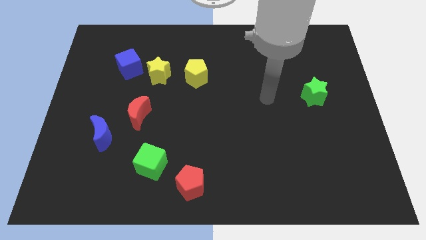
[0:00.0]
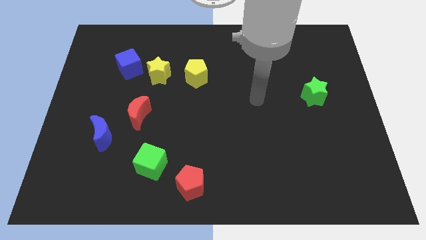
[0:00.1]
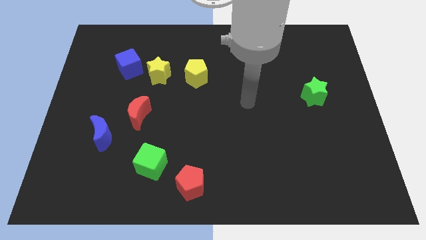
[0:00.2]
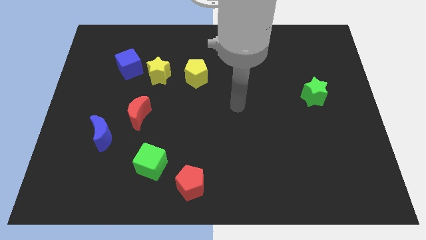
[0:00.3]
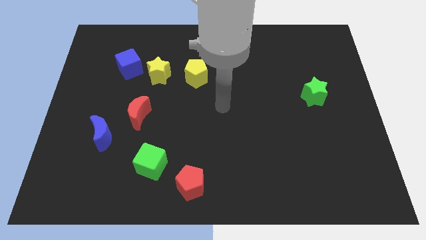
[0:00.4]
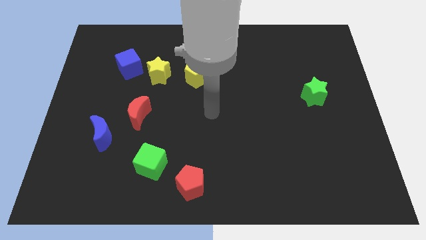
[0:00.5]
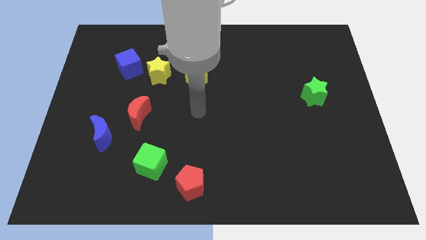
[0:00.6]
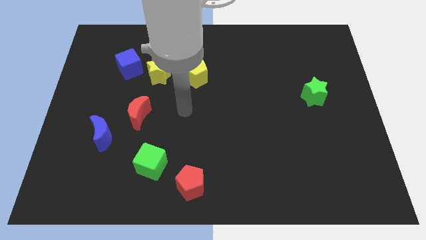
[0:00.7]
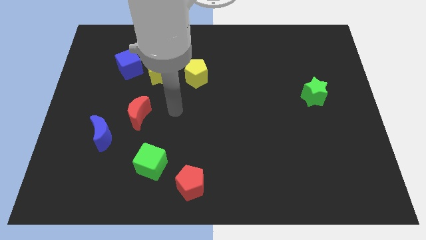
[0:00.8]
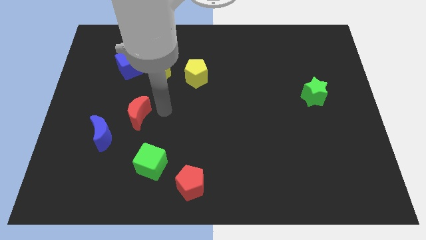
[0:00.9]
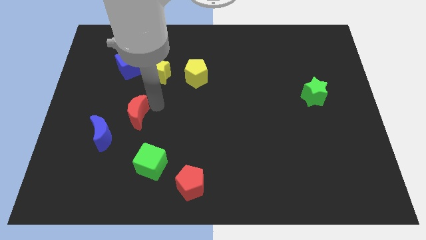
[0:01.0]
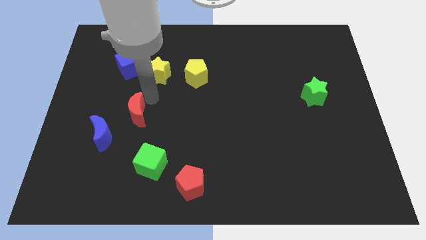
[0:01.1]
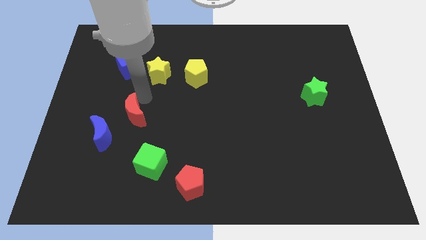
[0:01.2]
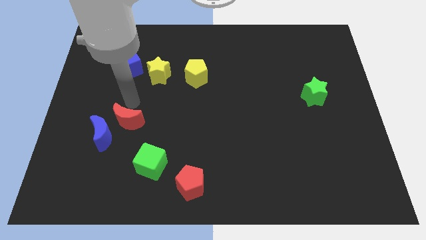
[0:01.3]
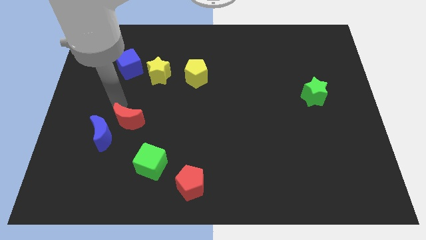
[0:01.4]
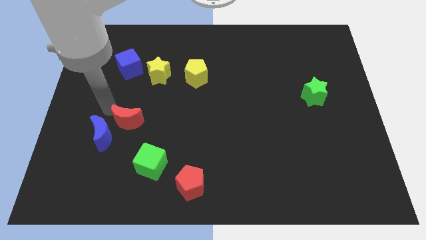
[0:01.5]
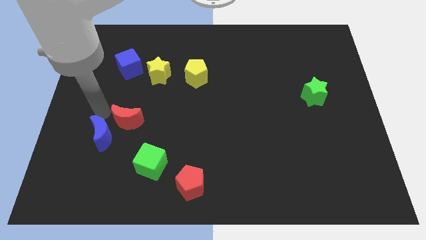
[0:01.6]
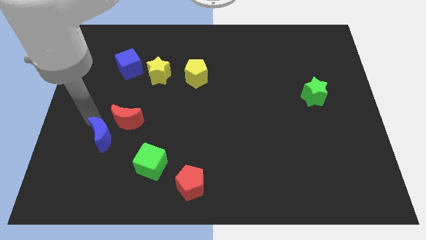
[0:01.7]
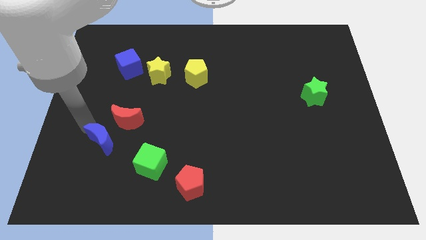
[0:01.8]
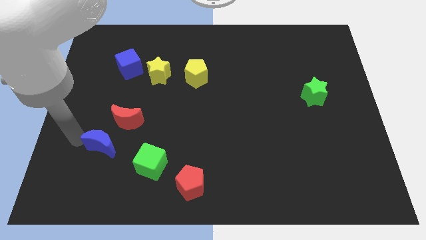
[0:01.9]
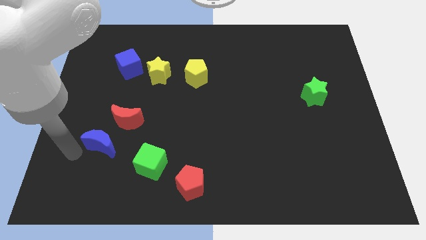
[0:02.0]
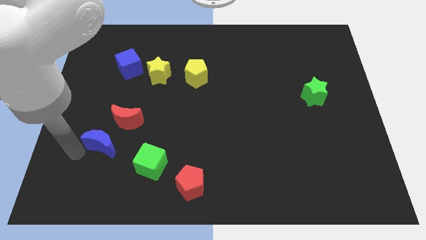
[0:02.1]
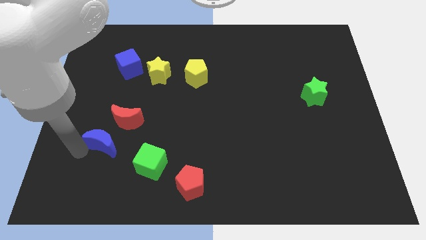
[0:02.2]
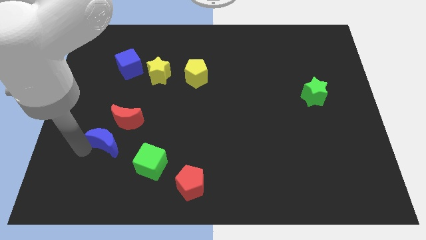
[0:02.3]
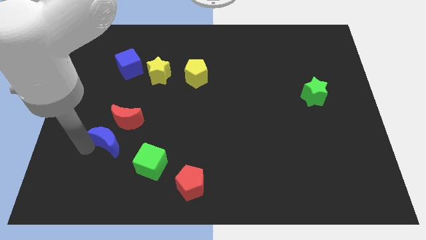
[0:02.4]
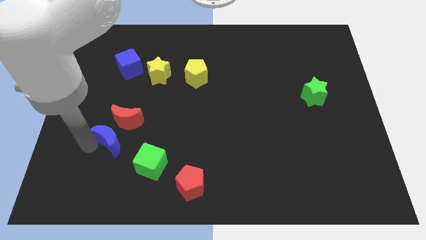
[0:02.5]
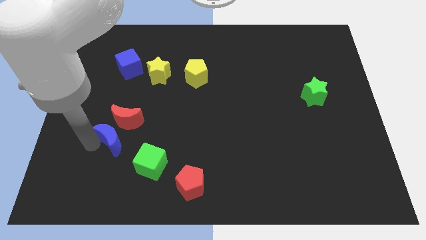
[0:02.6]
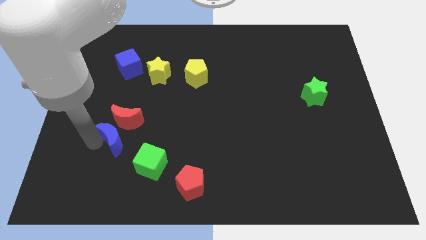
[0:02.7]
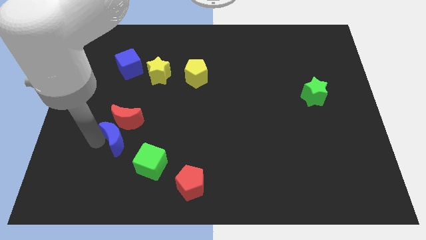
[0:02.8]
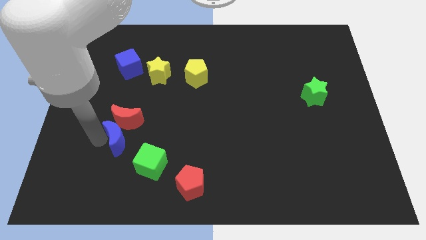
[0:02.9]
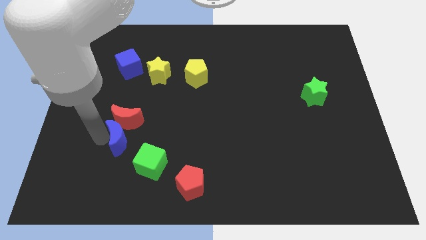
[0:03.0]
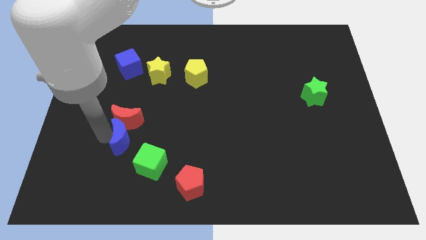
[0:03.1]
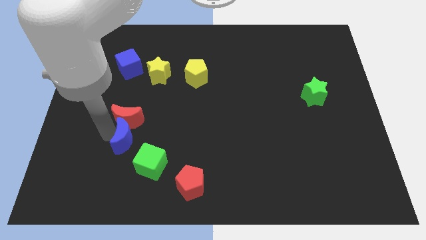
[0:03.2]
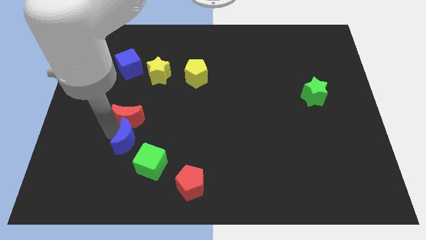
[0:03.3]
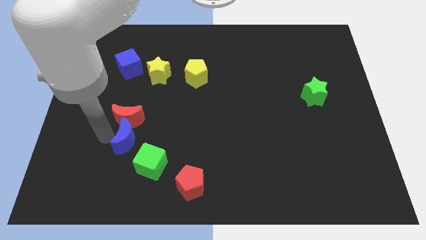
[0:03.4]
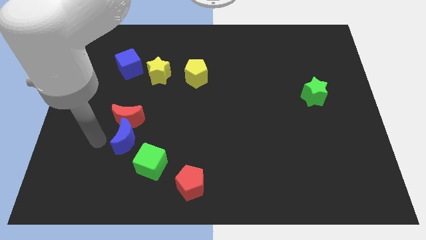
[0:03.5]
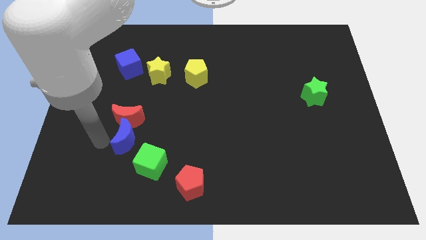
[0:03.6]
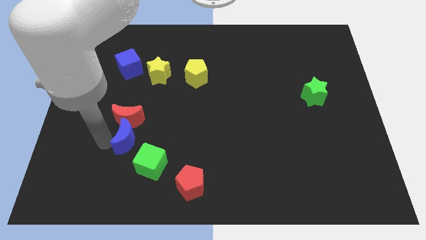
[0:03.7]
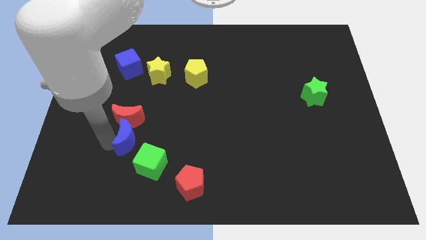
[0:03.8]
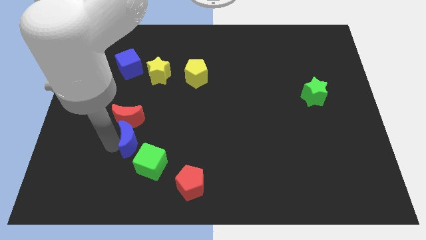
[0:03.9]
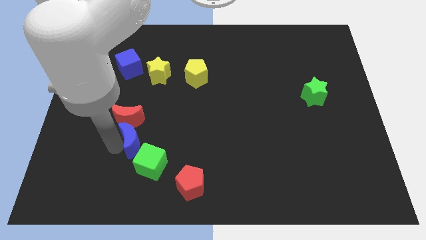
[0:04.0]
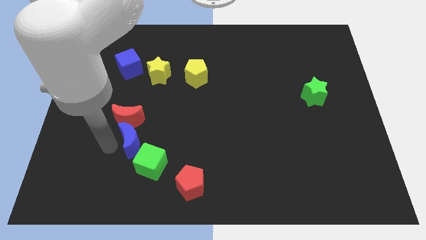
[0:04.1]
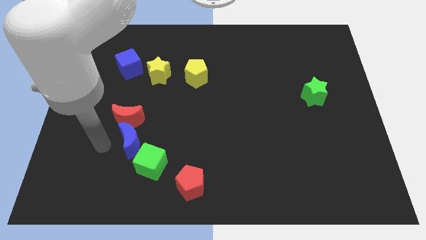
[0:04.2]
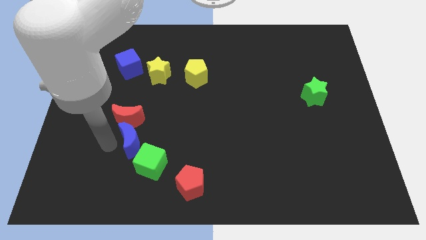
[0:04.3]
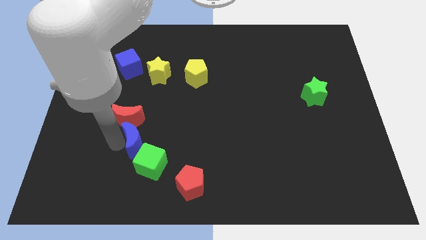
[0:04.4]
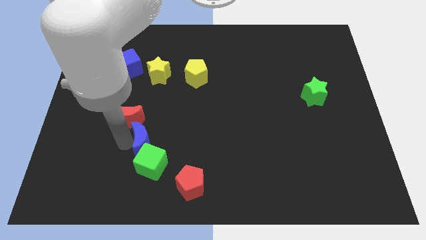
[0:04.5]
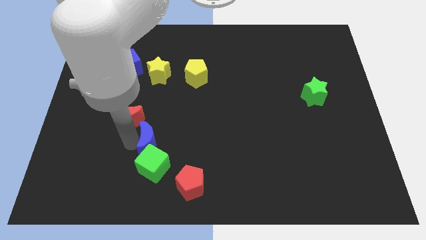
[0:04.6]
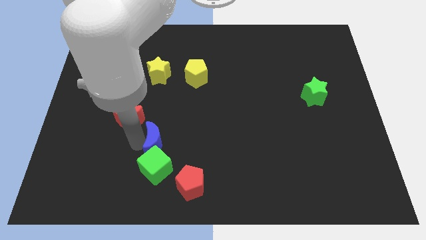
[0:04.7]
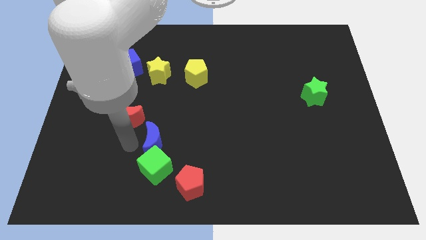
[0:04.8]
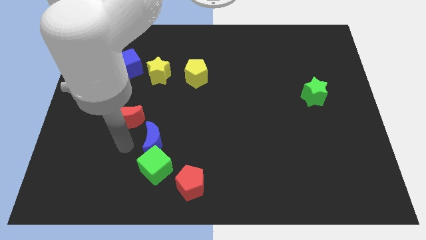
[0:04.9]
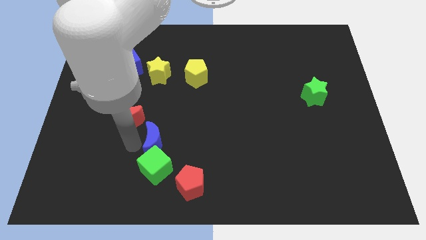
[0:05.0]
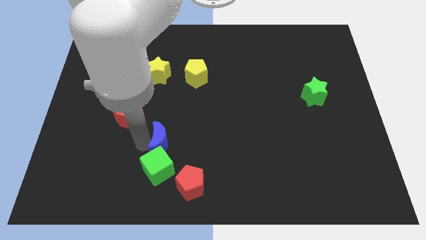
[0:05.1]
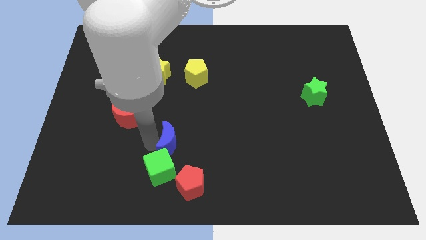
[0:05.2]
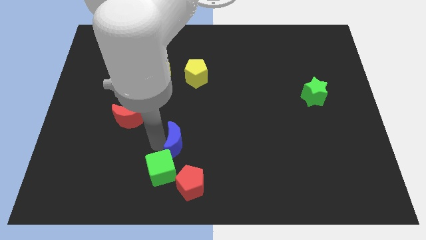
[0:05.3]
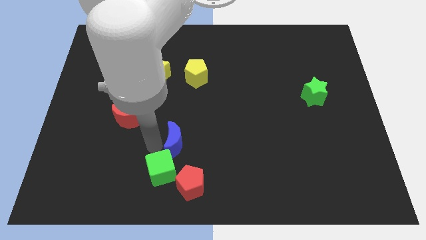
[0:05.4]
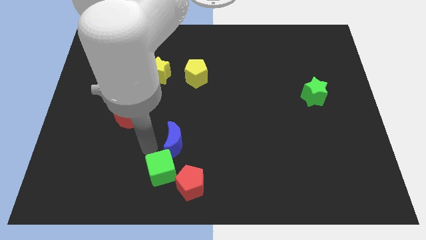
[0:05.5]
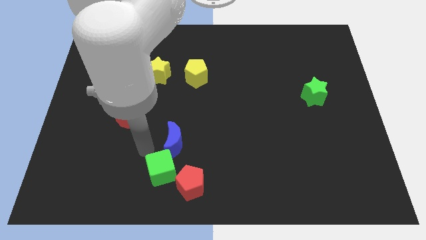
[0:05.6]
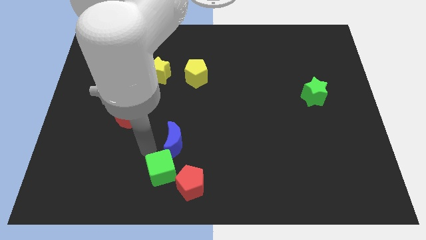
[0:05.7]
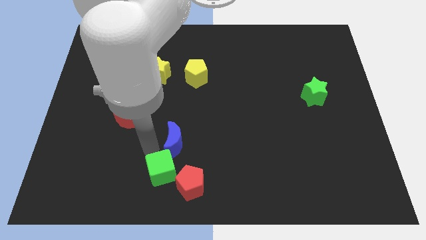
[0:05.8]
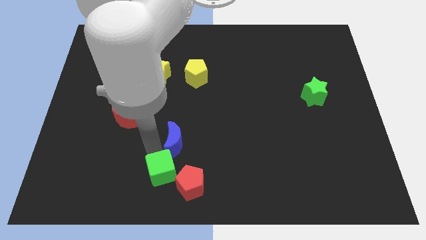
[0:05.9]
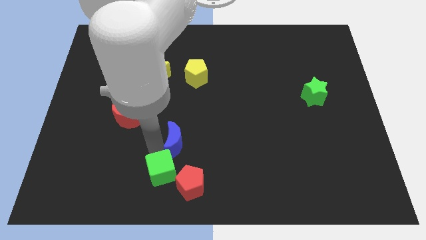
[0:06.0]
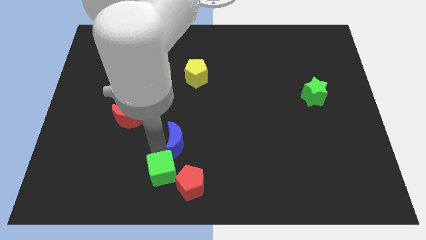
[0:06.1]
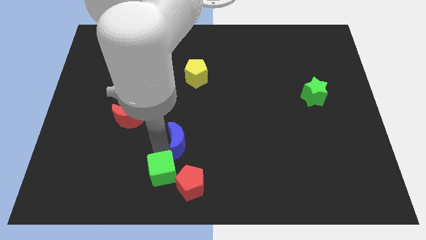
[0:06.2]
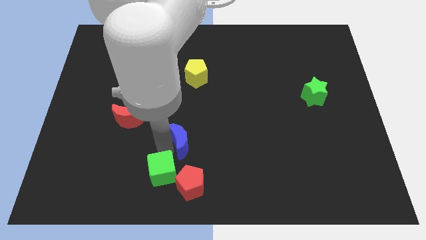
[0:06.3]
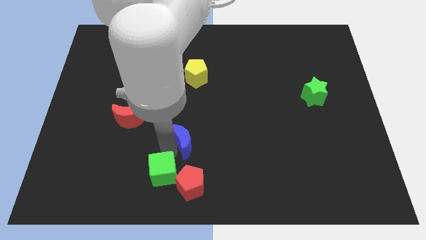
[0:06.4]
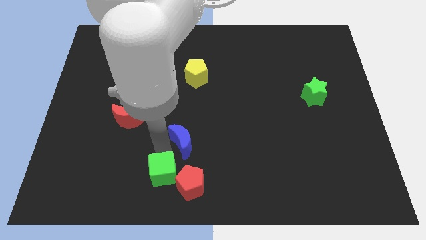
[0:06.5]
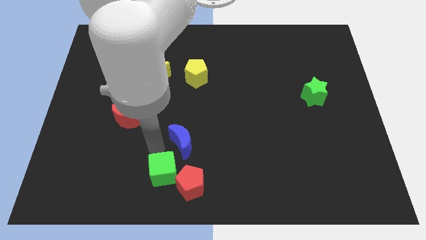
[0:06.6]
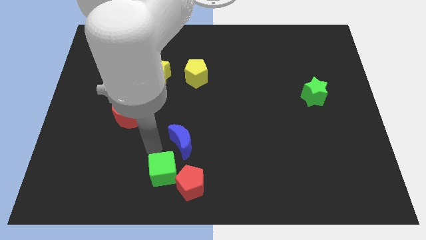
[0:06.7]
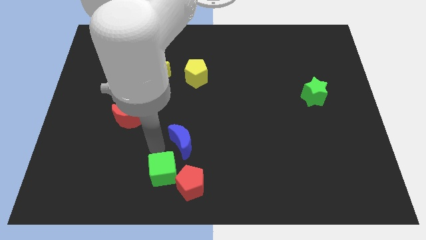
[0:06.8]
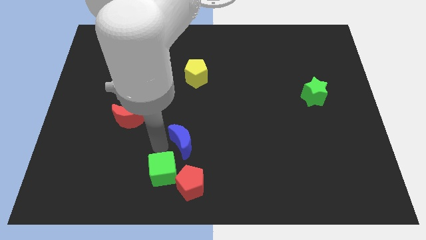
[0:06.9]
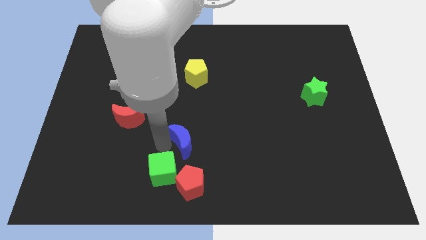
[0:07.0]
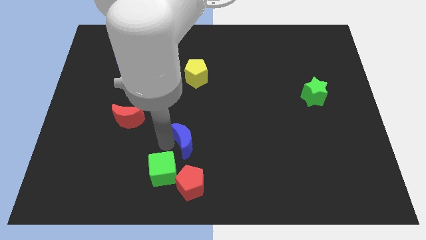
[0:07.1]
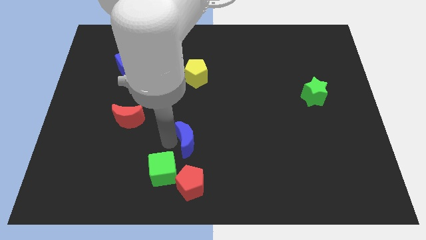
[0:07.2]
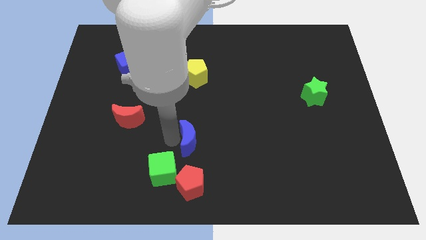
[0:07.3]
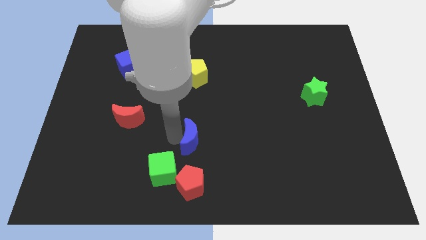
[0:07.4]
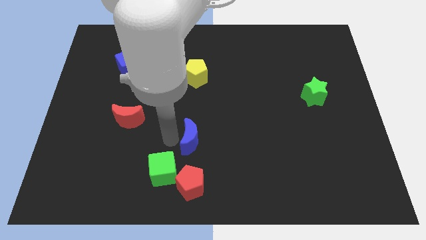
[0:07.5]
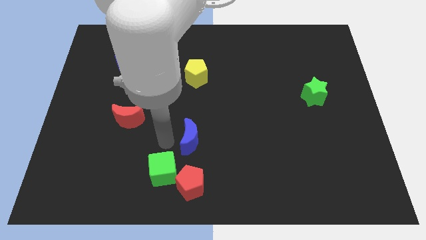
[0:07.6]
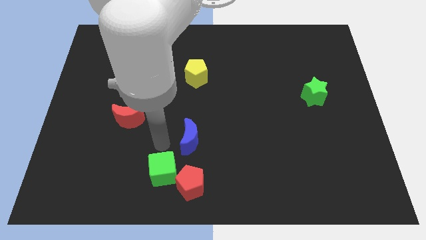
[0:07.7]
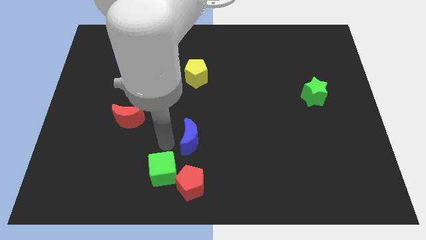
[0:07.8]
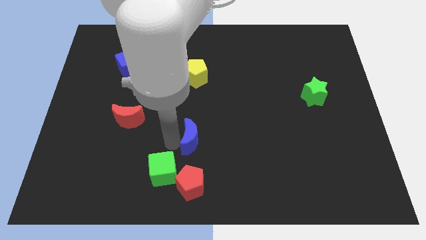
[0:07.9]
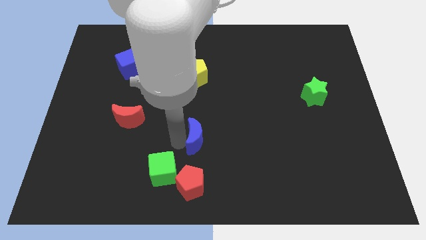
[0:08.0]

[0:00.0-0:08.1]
push the blue moon to the right
